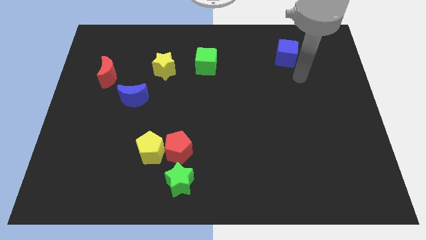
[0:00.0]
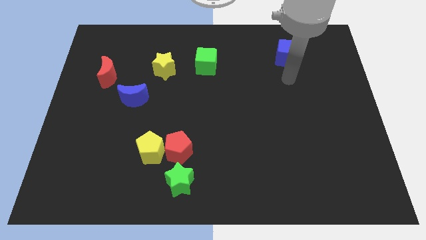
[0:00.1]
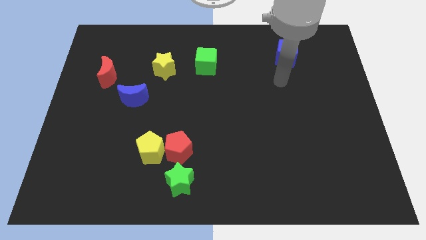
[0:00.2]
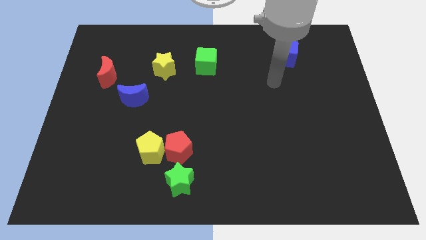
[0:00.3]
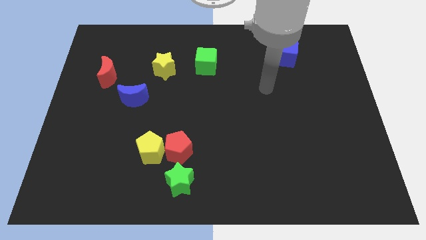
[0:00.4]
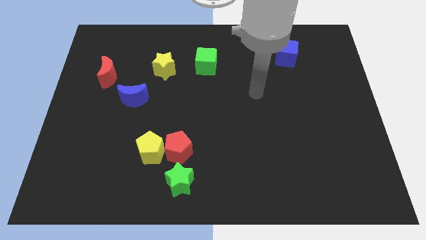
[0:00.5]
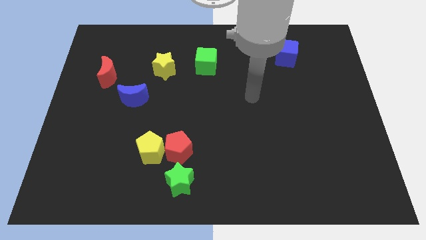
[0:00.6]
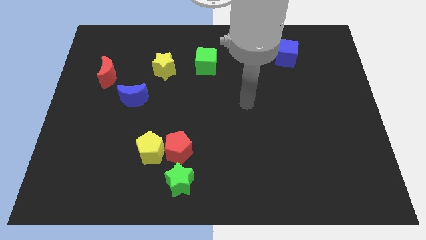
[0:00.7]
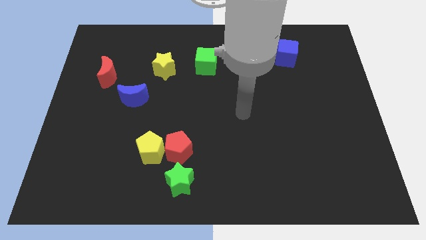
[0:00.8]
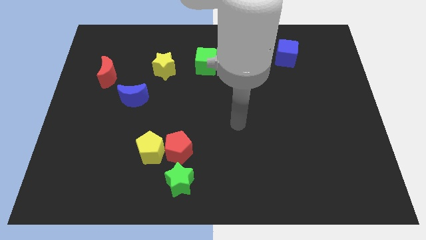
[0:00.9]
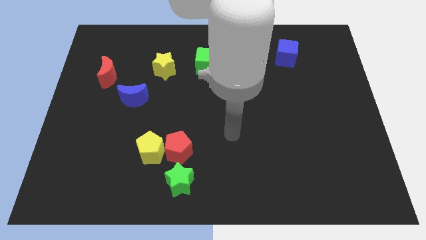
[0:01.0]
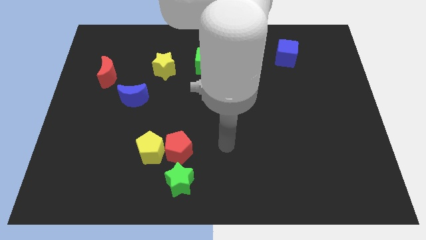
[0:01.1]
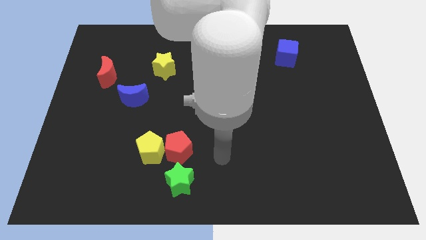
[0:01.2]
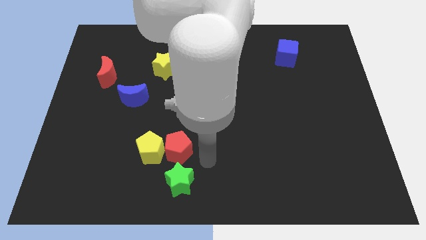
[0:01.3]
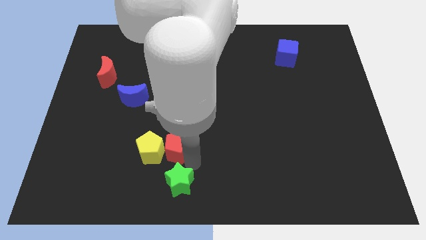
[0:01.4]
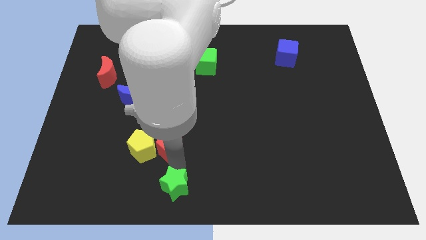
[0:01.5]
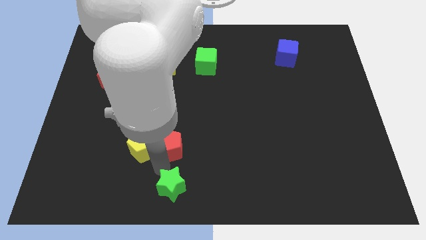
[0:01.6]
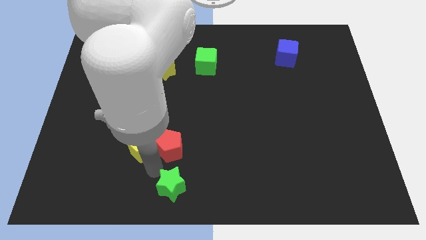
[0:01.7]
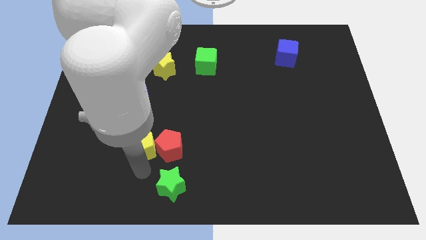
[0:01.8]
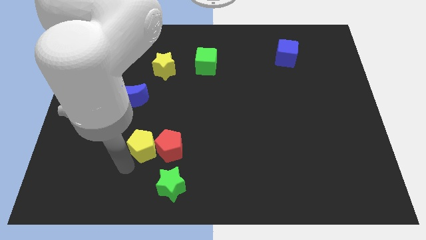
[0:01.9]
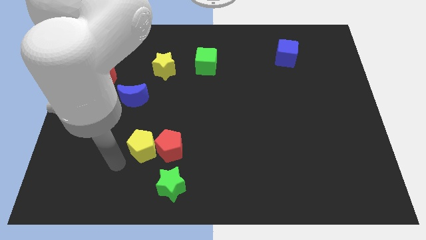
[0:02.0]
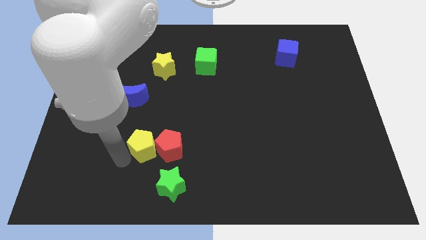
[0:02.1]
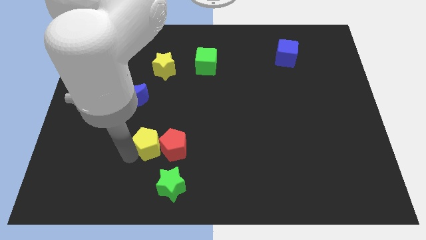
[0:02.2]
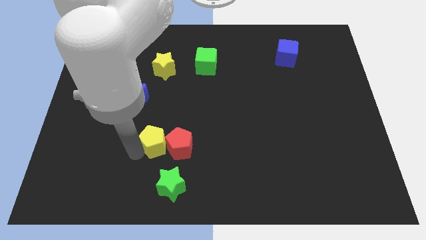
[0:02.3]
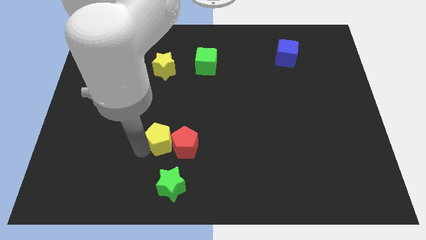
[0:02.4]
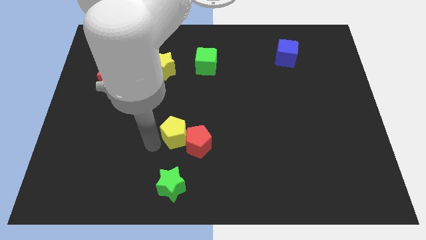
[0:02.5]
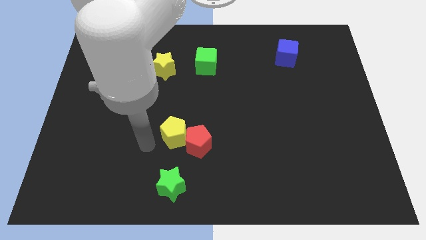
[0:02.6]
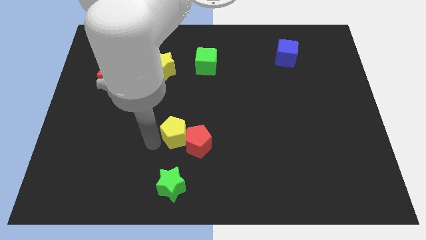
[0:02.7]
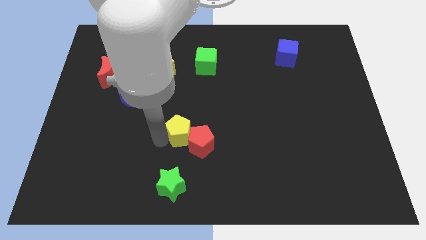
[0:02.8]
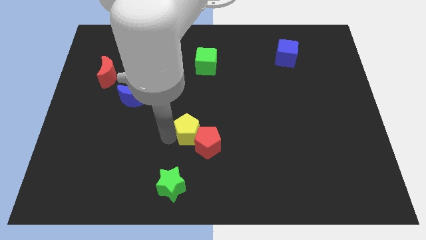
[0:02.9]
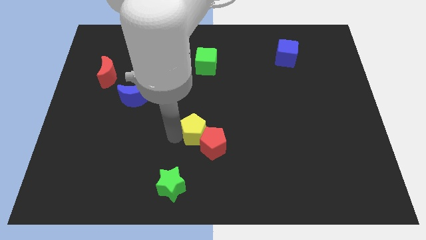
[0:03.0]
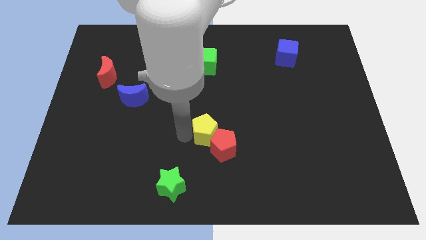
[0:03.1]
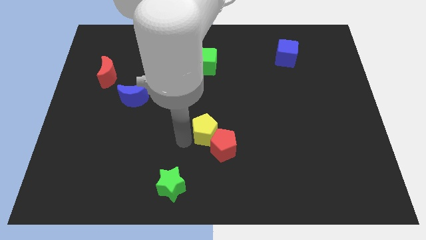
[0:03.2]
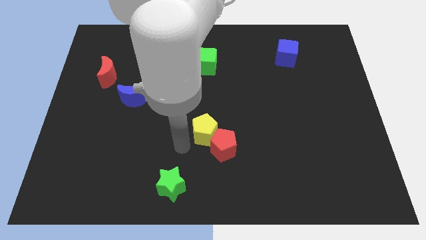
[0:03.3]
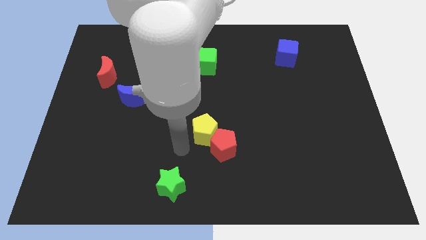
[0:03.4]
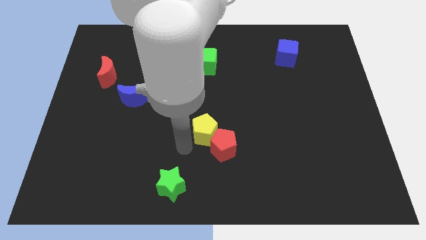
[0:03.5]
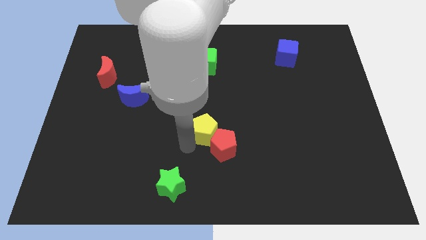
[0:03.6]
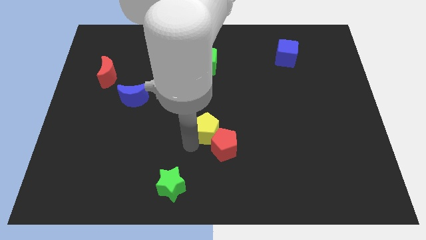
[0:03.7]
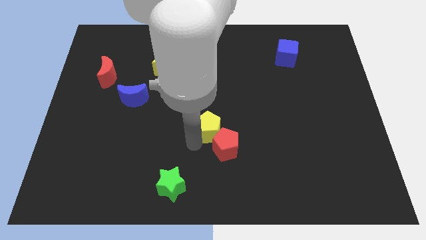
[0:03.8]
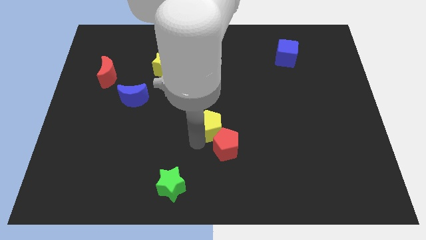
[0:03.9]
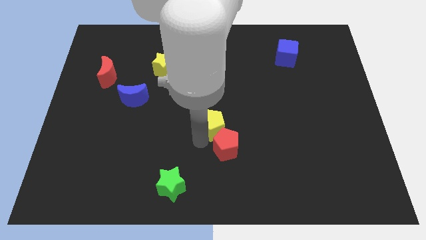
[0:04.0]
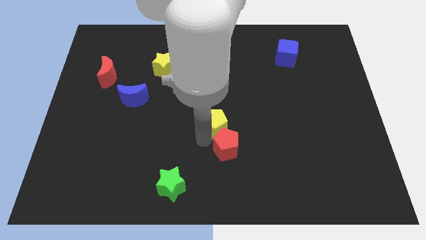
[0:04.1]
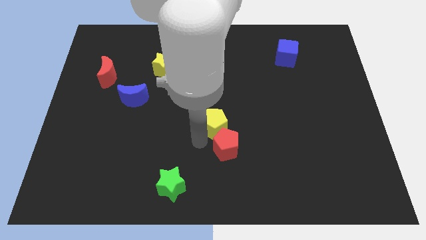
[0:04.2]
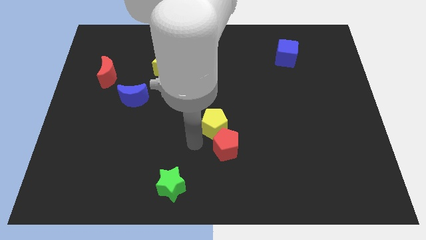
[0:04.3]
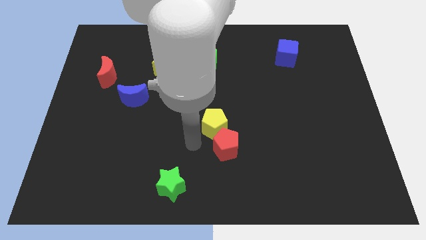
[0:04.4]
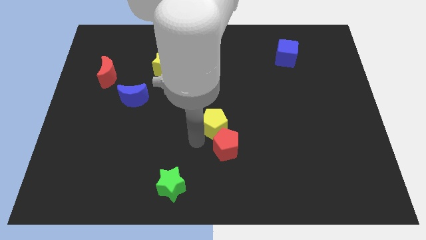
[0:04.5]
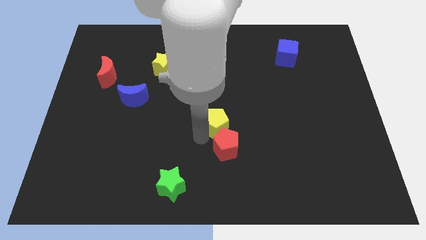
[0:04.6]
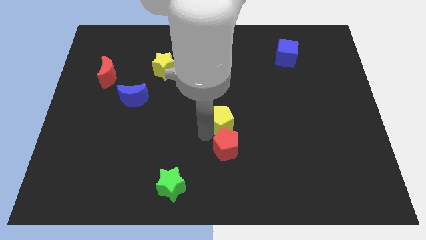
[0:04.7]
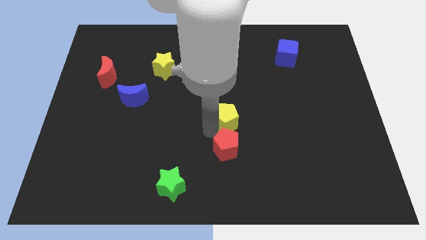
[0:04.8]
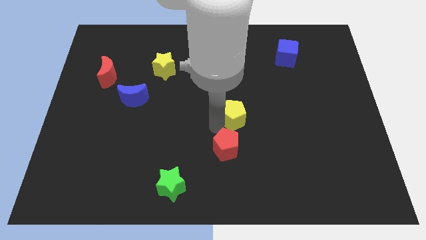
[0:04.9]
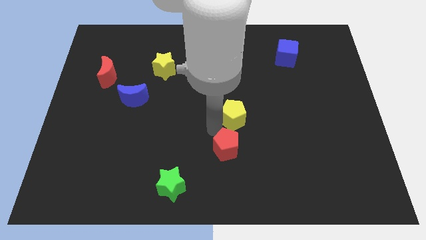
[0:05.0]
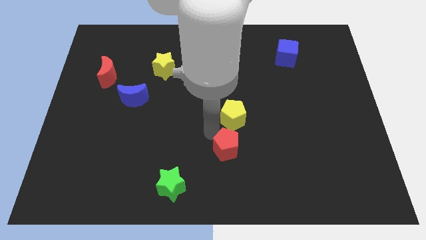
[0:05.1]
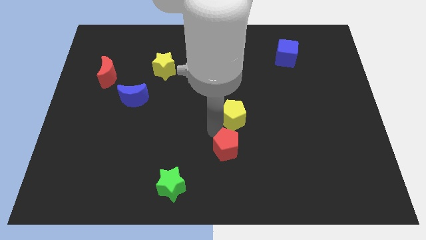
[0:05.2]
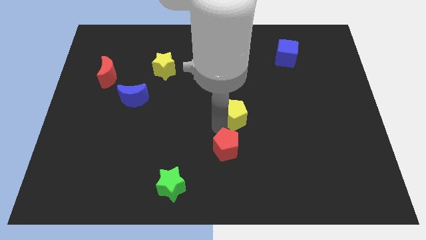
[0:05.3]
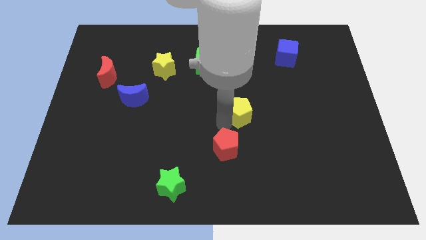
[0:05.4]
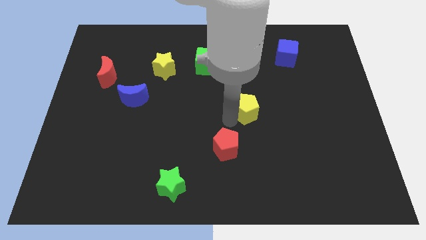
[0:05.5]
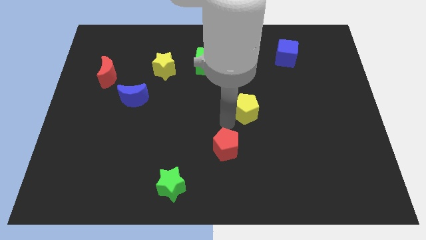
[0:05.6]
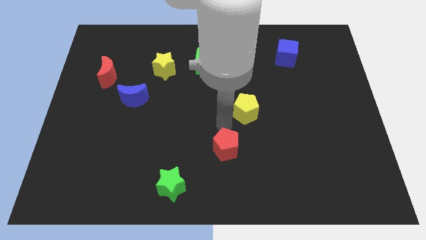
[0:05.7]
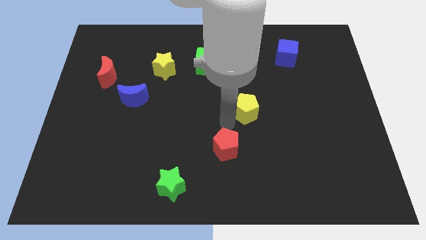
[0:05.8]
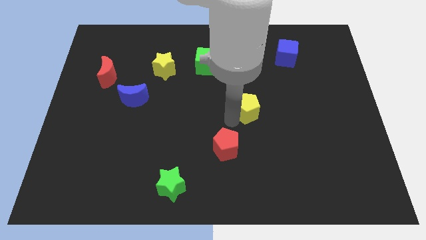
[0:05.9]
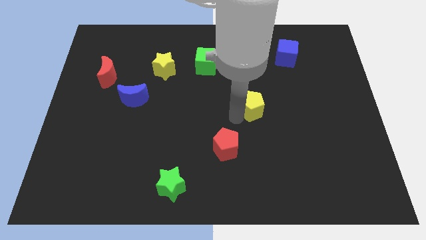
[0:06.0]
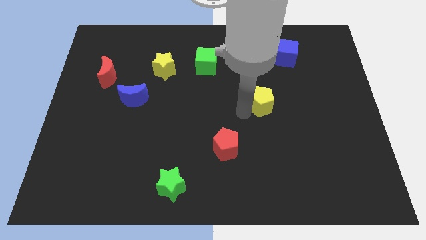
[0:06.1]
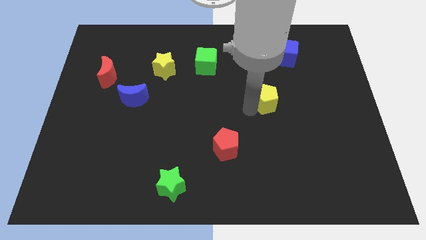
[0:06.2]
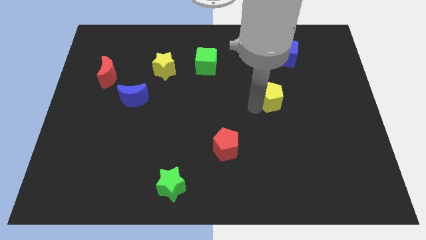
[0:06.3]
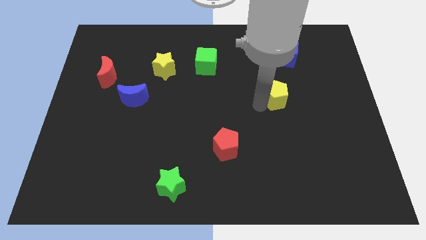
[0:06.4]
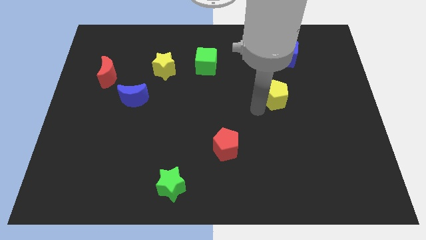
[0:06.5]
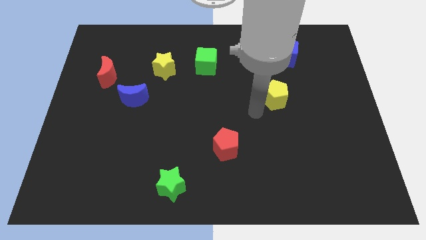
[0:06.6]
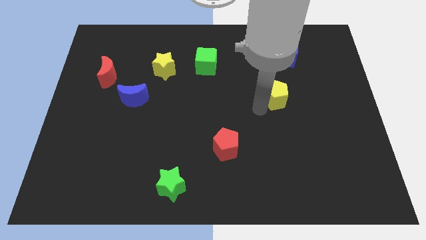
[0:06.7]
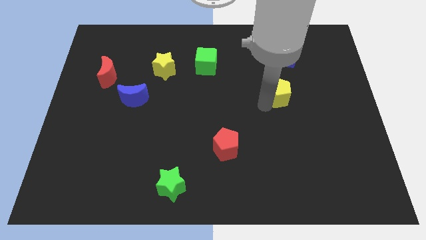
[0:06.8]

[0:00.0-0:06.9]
push the yellow pentagon to the bottom of the blue cube
